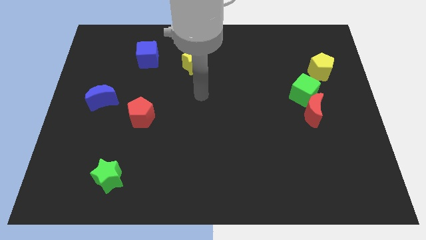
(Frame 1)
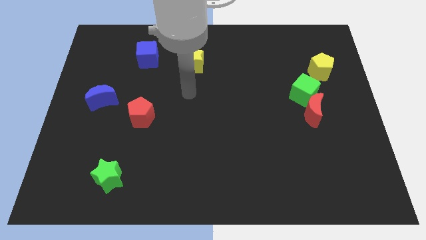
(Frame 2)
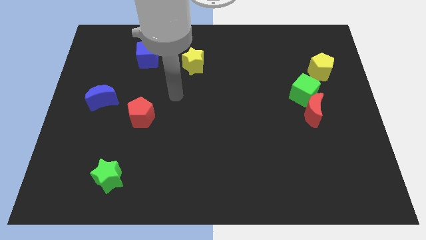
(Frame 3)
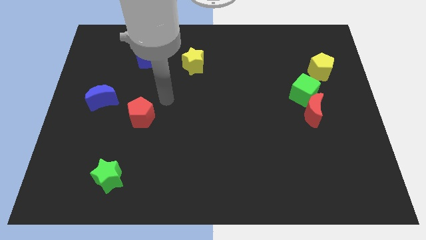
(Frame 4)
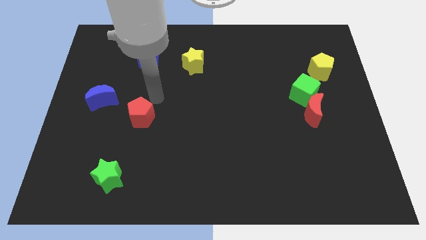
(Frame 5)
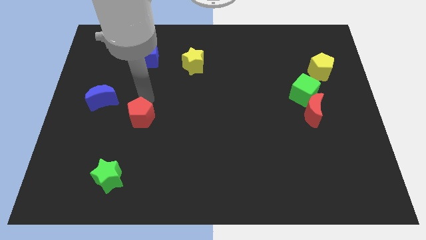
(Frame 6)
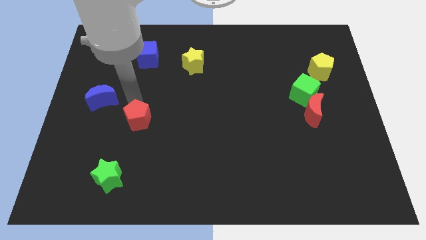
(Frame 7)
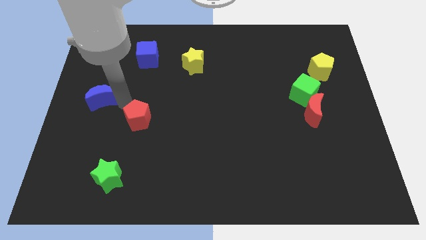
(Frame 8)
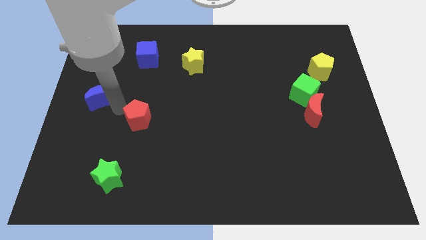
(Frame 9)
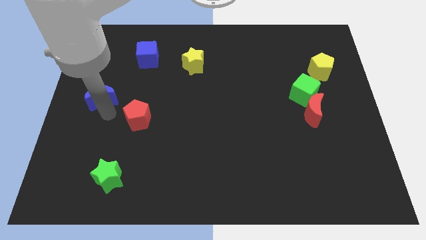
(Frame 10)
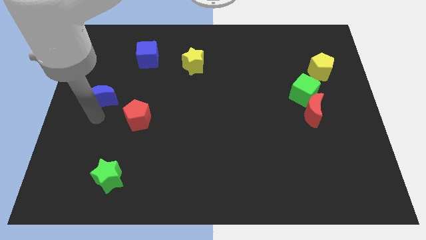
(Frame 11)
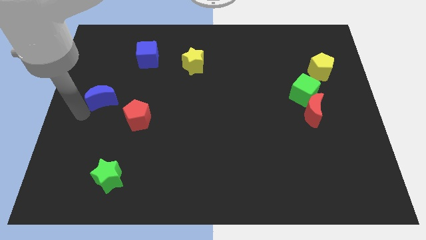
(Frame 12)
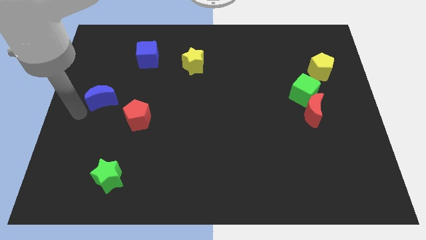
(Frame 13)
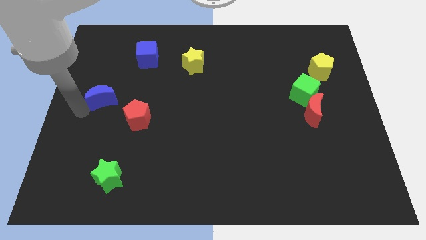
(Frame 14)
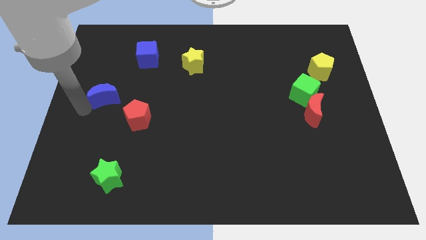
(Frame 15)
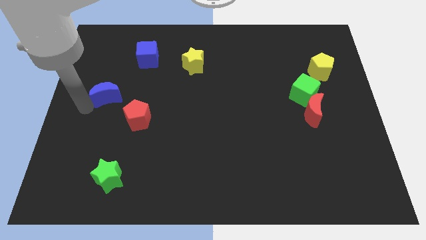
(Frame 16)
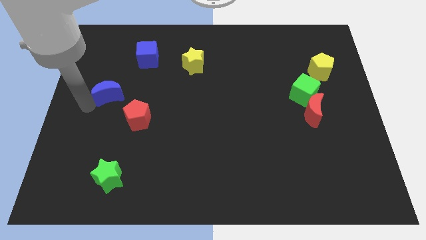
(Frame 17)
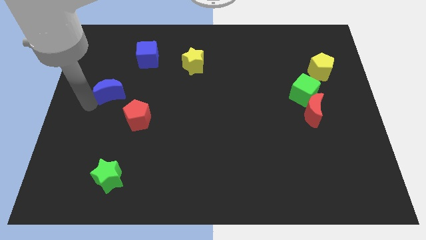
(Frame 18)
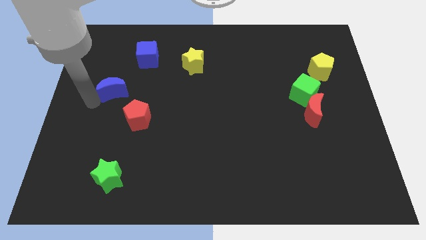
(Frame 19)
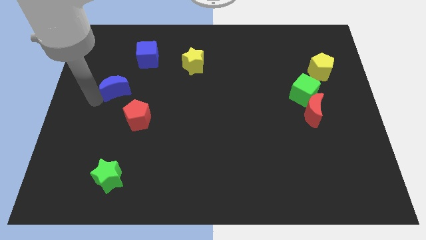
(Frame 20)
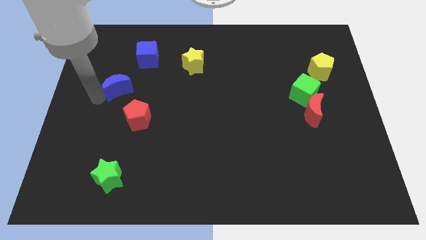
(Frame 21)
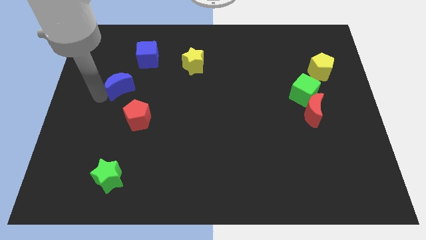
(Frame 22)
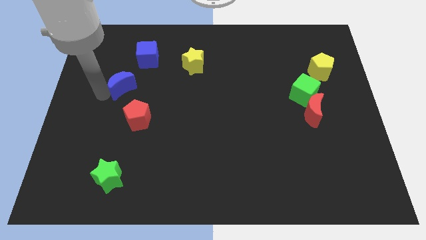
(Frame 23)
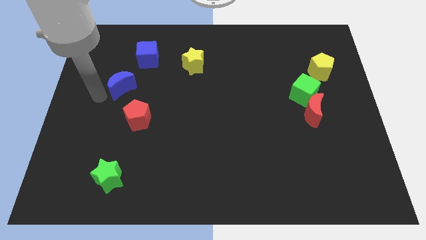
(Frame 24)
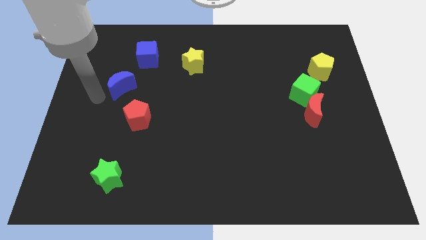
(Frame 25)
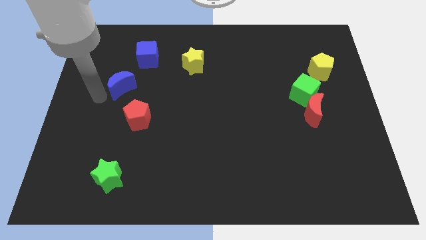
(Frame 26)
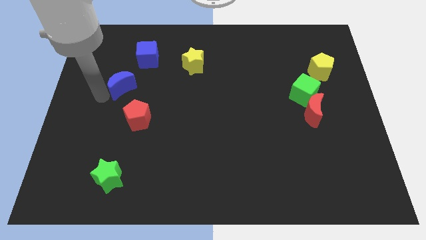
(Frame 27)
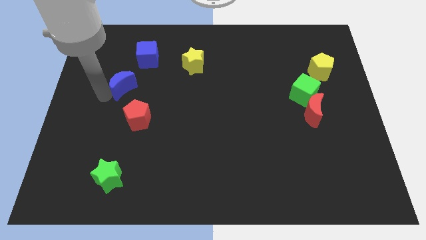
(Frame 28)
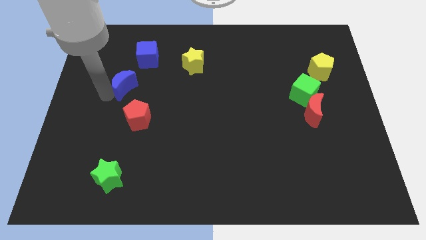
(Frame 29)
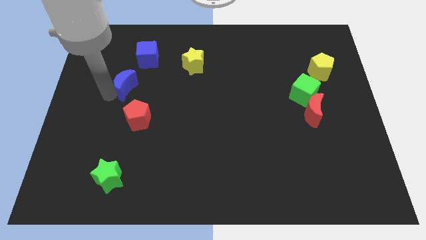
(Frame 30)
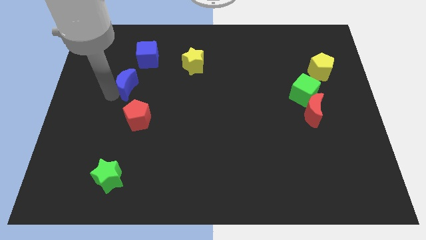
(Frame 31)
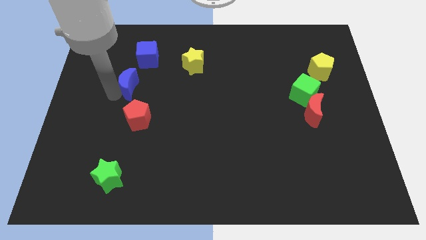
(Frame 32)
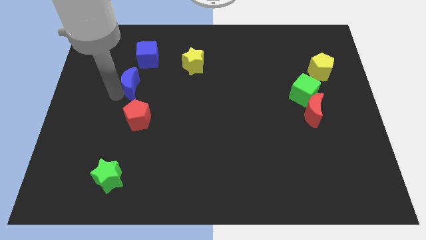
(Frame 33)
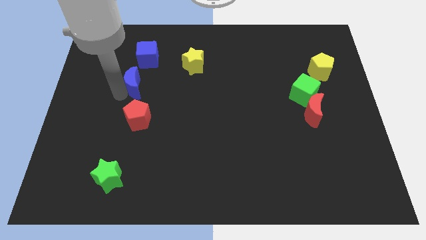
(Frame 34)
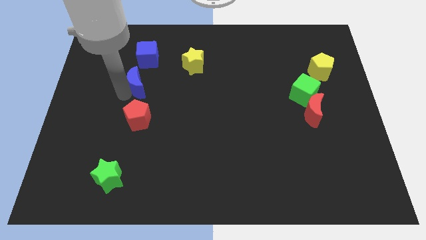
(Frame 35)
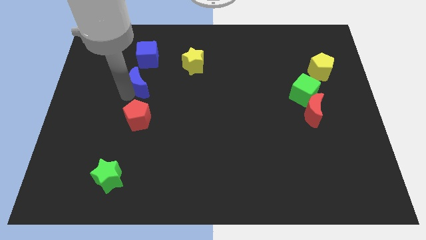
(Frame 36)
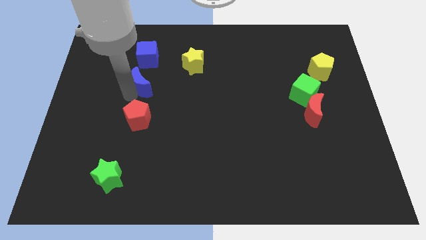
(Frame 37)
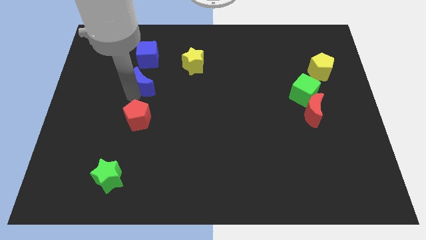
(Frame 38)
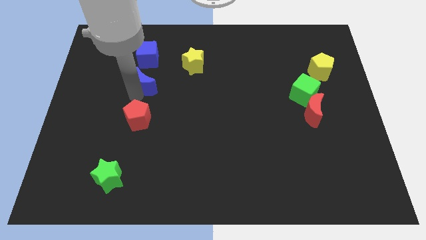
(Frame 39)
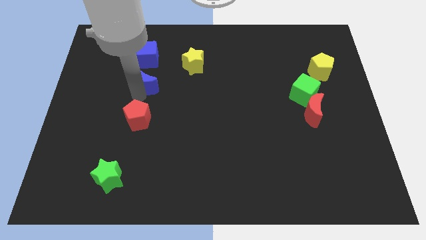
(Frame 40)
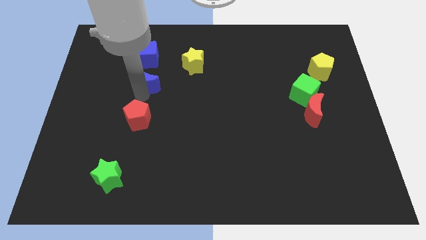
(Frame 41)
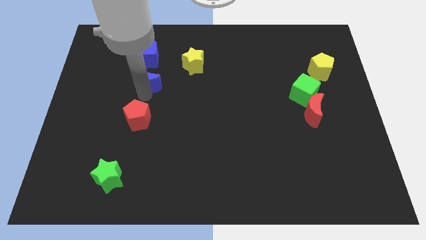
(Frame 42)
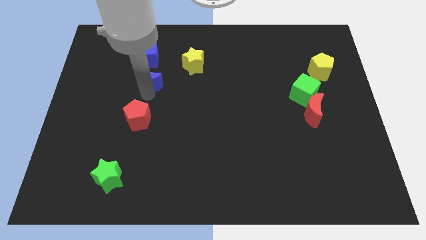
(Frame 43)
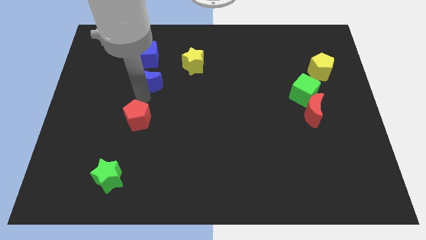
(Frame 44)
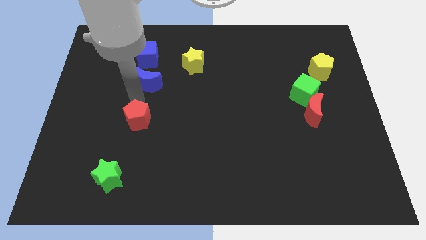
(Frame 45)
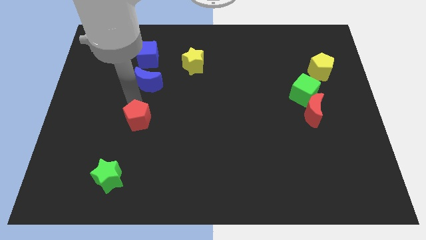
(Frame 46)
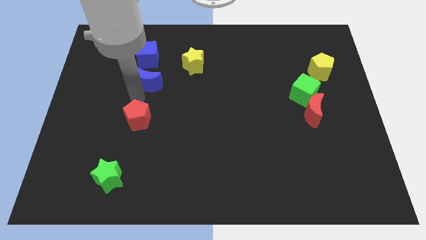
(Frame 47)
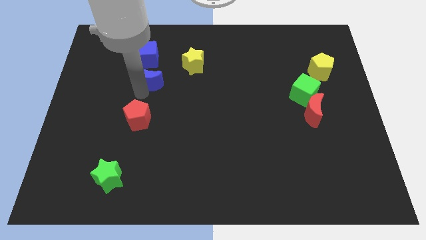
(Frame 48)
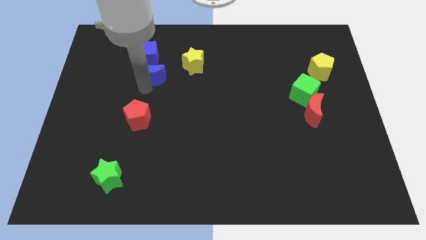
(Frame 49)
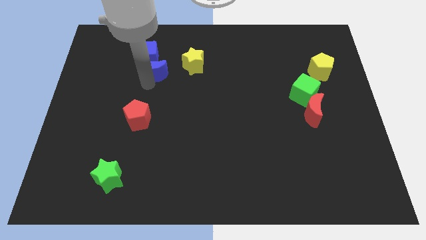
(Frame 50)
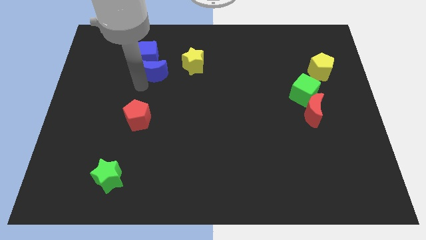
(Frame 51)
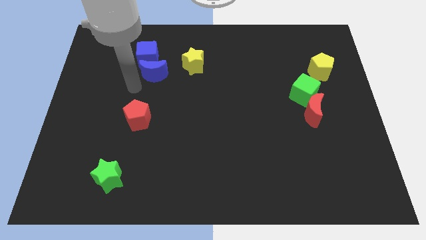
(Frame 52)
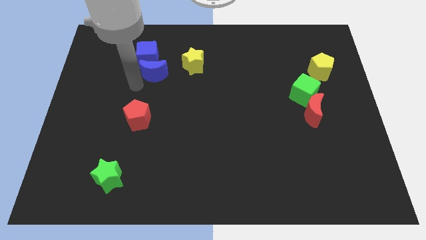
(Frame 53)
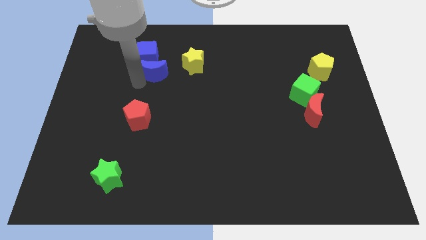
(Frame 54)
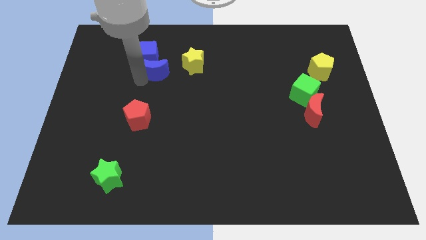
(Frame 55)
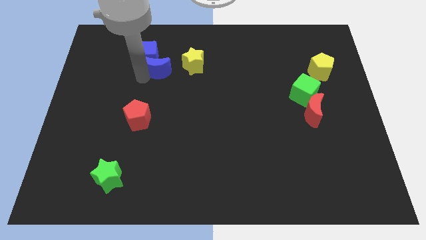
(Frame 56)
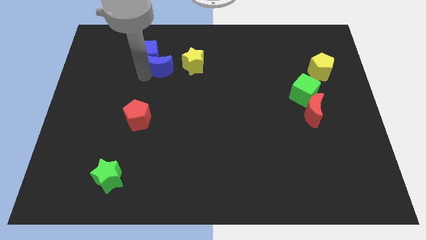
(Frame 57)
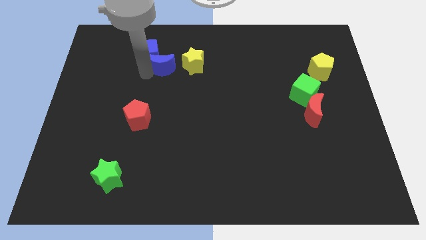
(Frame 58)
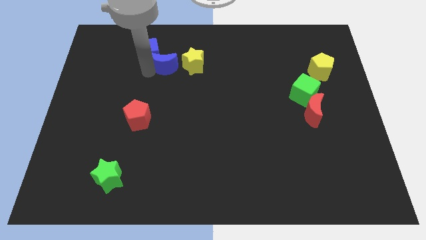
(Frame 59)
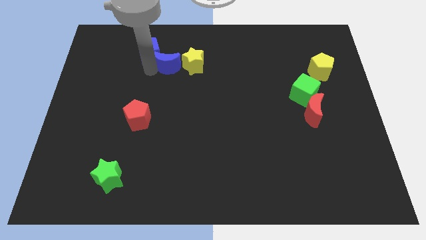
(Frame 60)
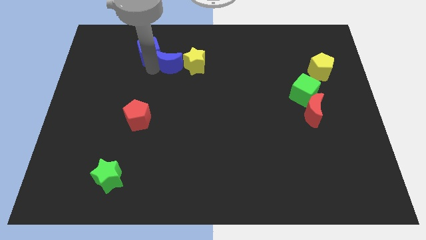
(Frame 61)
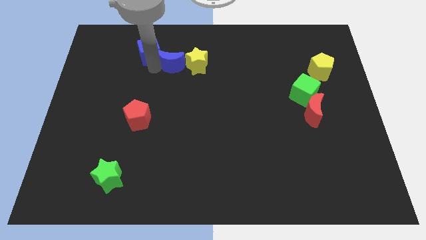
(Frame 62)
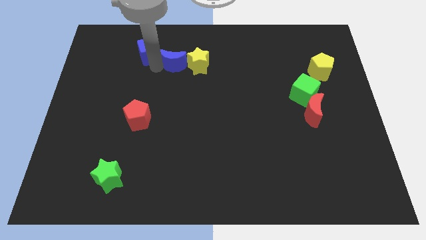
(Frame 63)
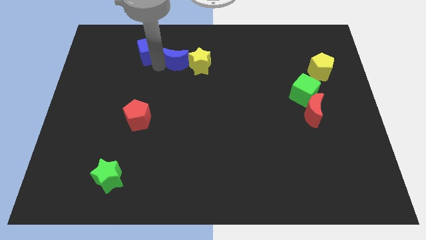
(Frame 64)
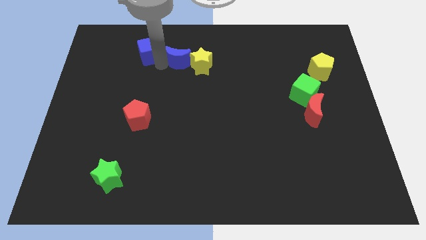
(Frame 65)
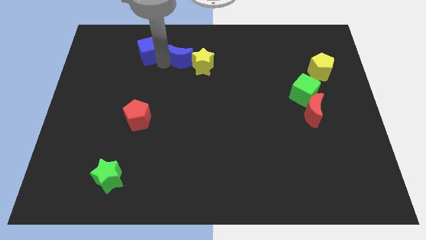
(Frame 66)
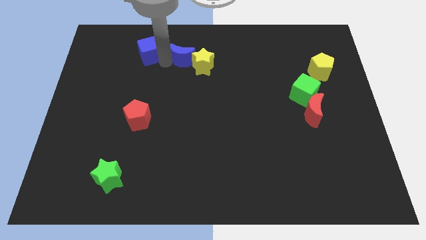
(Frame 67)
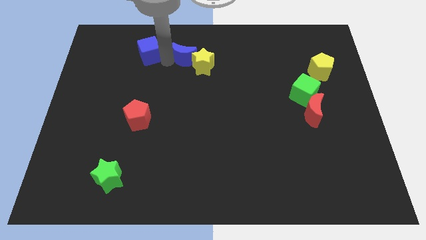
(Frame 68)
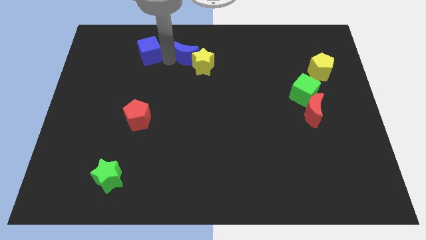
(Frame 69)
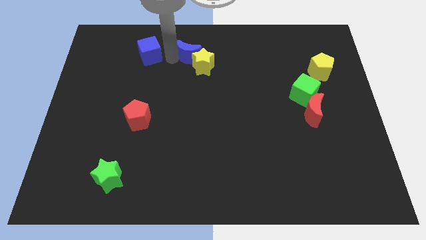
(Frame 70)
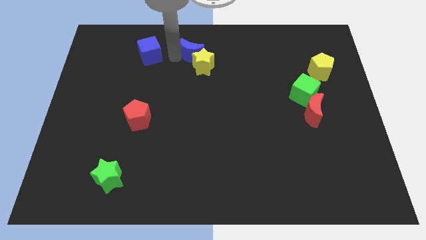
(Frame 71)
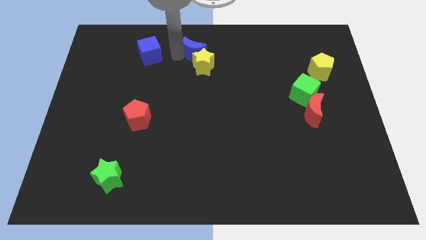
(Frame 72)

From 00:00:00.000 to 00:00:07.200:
put the blue moon to the top side
